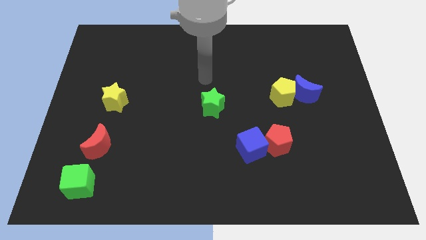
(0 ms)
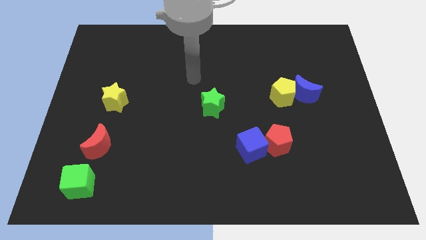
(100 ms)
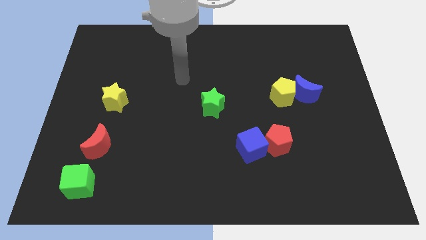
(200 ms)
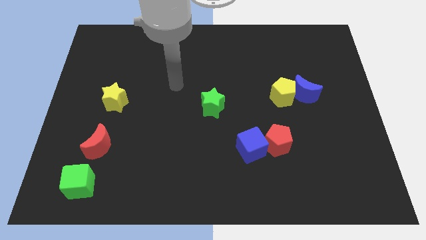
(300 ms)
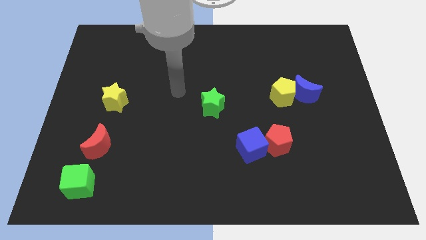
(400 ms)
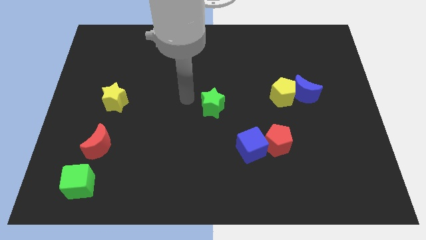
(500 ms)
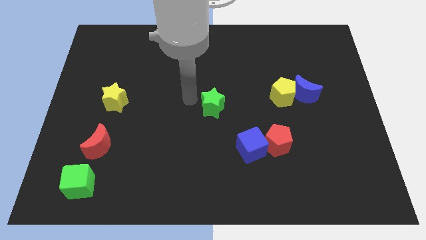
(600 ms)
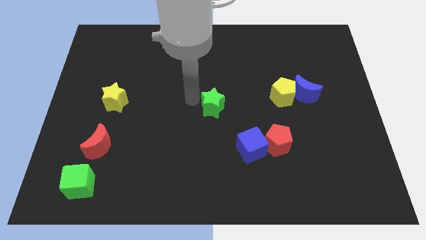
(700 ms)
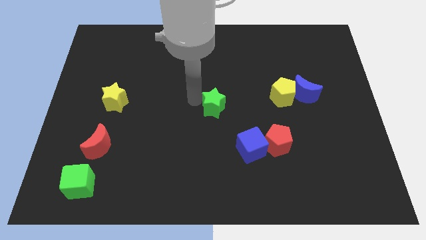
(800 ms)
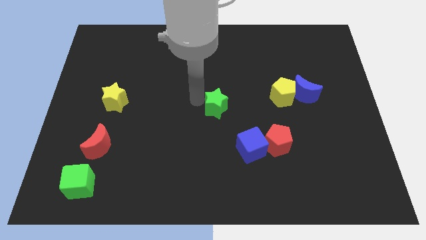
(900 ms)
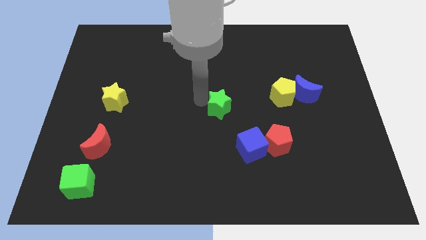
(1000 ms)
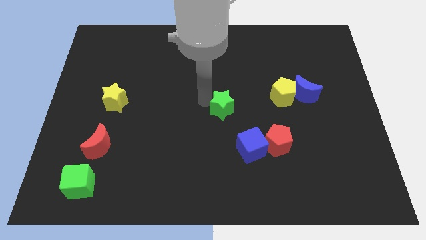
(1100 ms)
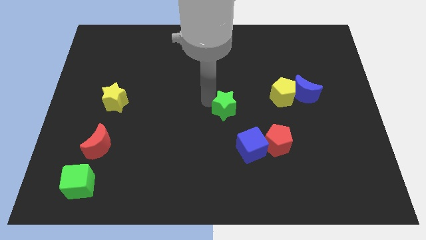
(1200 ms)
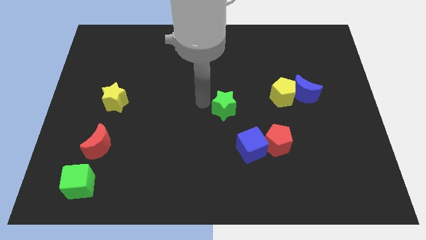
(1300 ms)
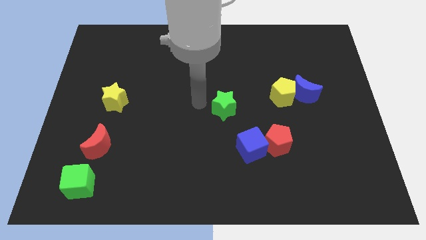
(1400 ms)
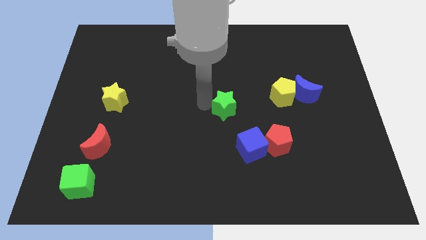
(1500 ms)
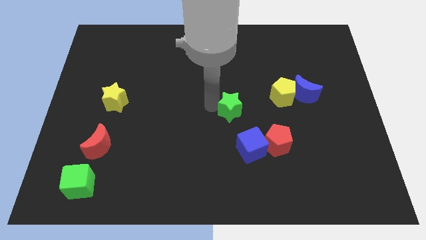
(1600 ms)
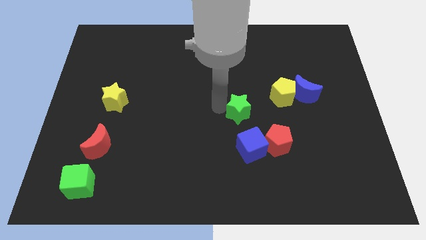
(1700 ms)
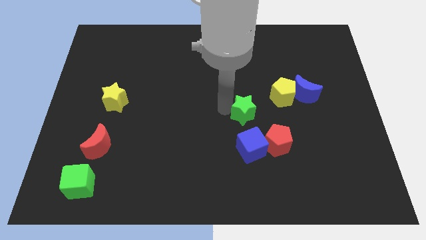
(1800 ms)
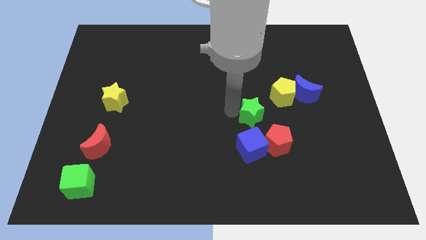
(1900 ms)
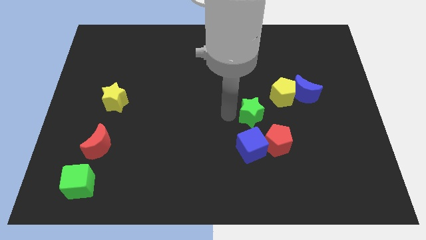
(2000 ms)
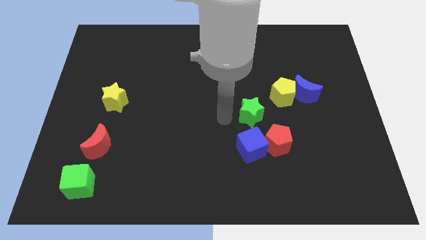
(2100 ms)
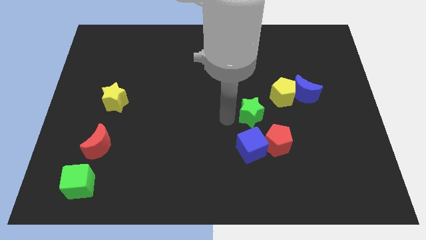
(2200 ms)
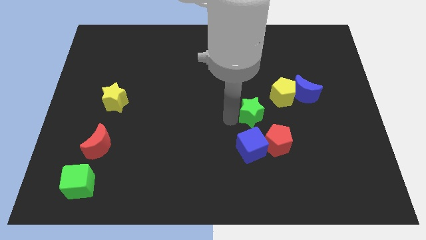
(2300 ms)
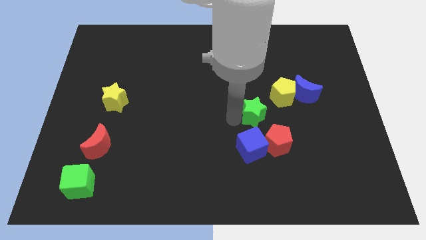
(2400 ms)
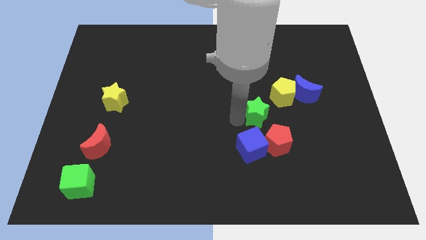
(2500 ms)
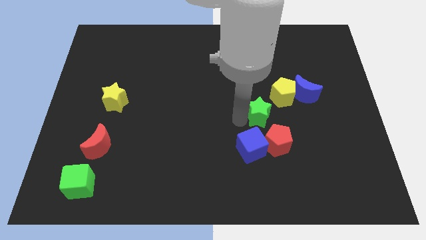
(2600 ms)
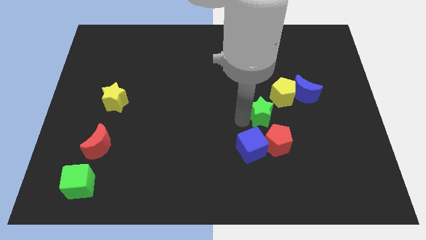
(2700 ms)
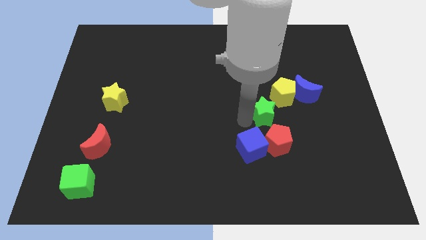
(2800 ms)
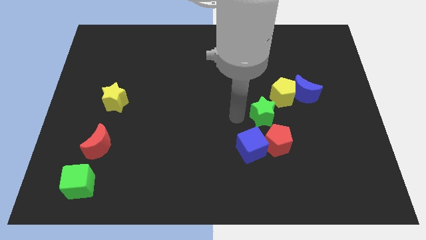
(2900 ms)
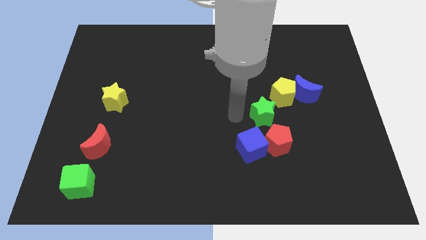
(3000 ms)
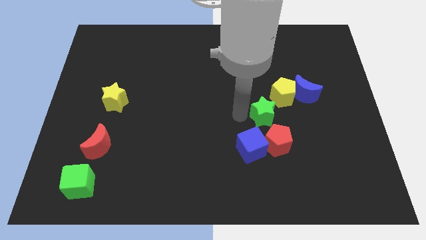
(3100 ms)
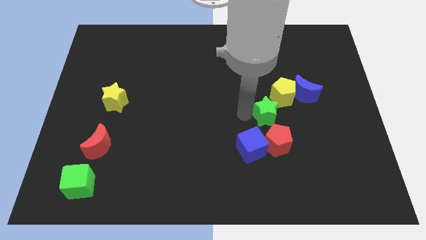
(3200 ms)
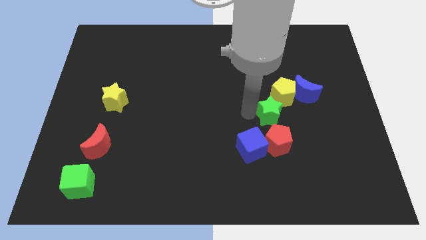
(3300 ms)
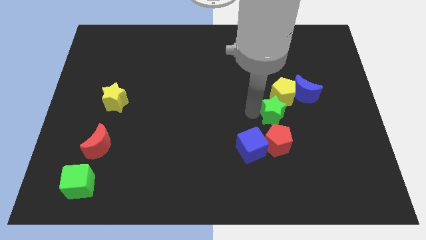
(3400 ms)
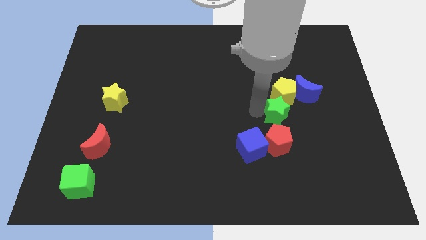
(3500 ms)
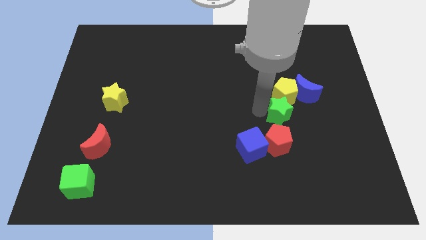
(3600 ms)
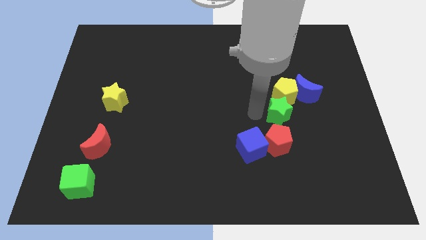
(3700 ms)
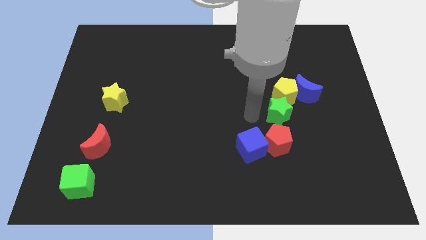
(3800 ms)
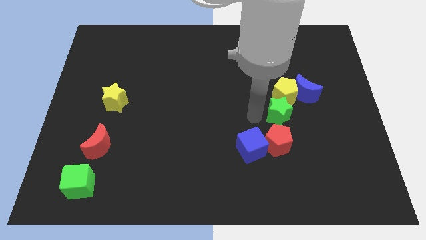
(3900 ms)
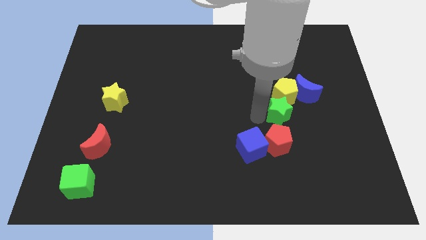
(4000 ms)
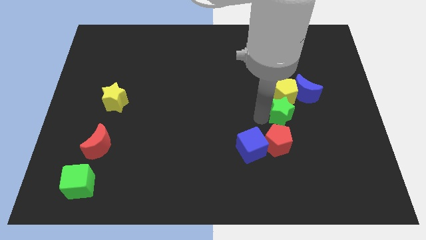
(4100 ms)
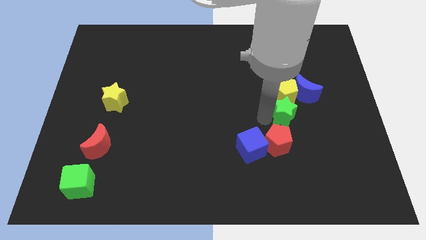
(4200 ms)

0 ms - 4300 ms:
put the green star diagonally down and to the right of the yellow pentagon

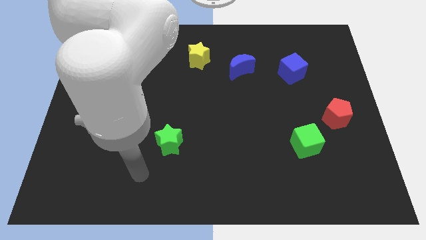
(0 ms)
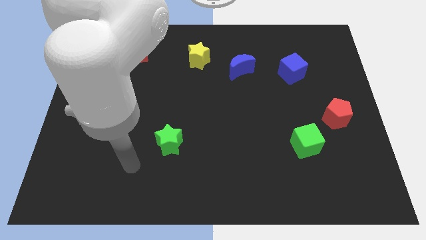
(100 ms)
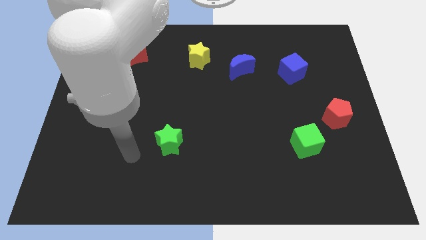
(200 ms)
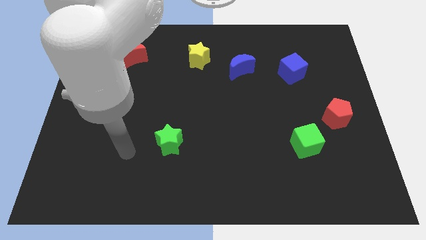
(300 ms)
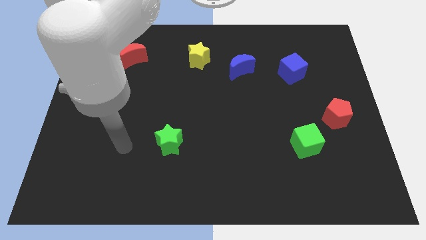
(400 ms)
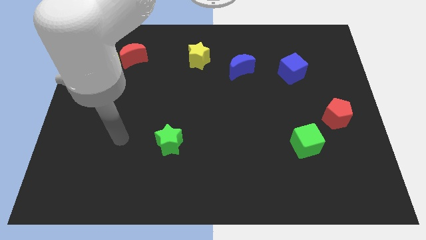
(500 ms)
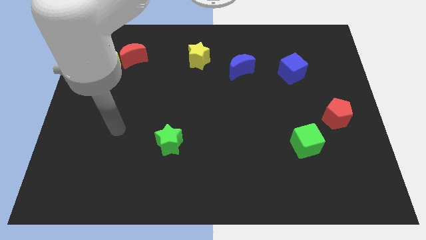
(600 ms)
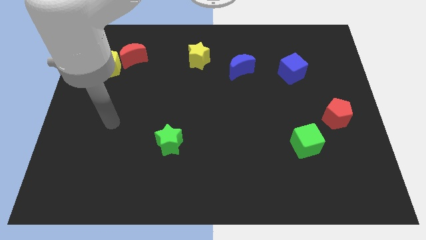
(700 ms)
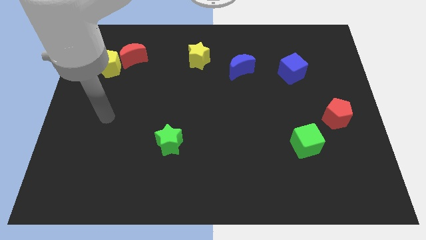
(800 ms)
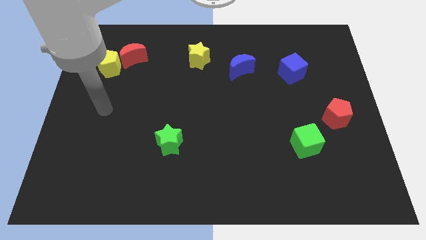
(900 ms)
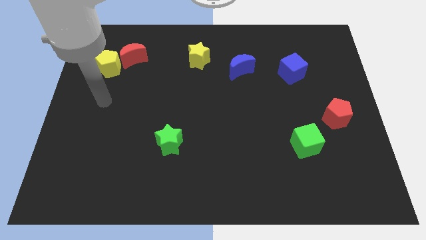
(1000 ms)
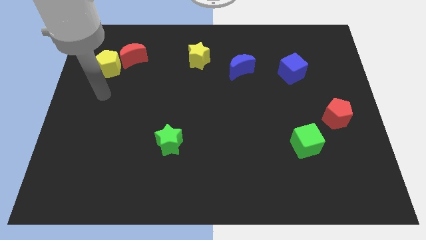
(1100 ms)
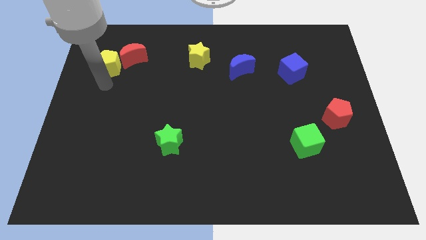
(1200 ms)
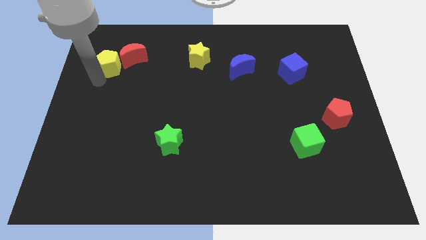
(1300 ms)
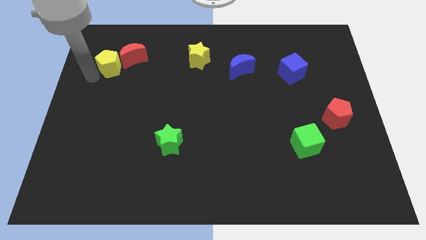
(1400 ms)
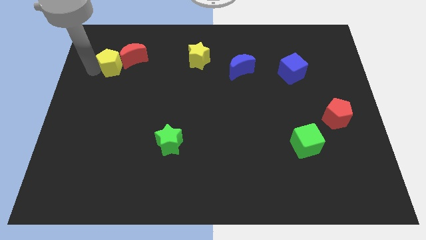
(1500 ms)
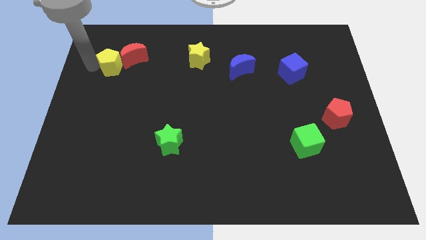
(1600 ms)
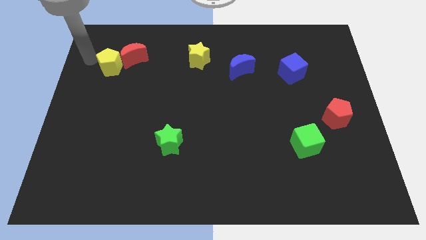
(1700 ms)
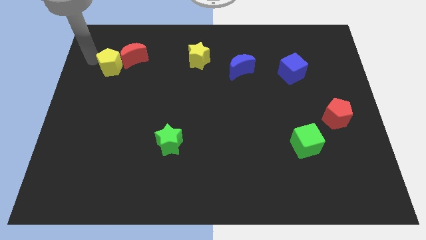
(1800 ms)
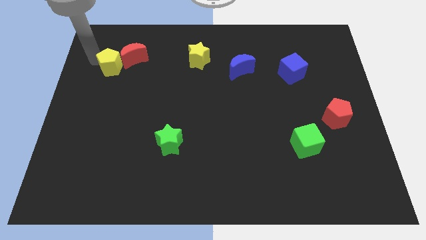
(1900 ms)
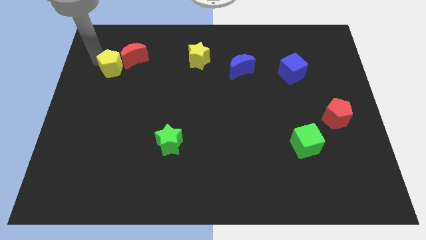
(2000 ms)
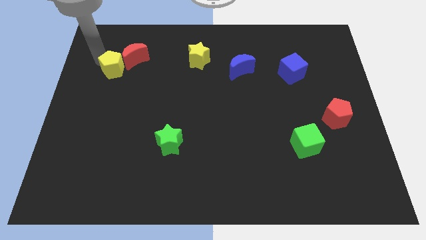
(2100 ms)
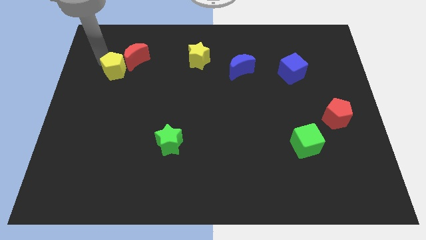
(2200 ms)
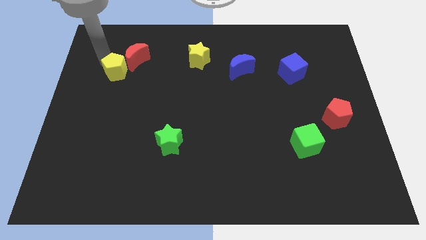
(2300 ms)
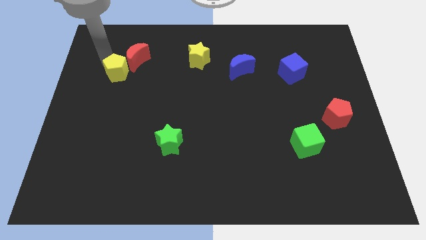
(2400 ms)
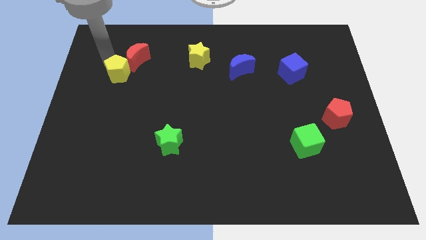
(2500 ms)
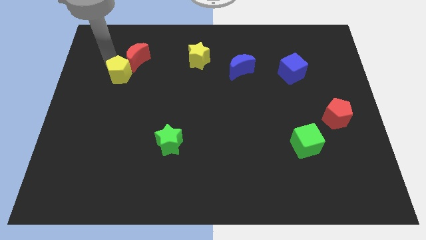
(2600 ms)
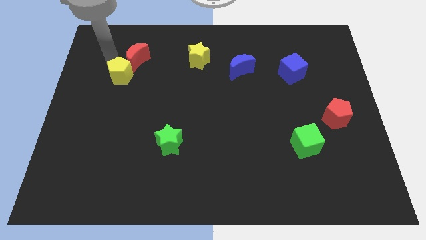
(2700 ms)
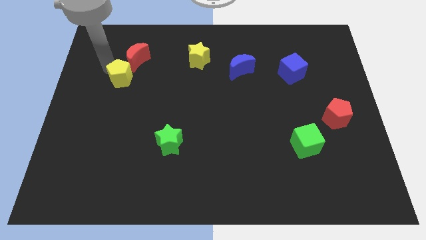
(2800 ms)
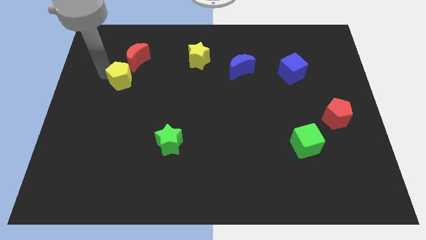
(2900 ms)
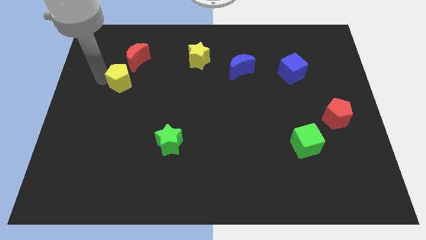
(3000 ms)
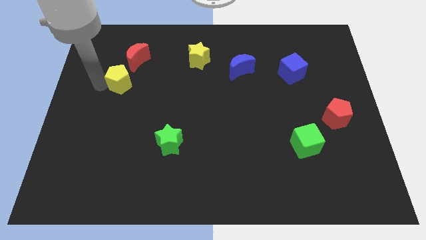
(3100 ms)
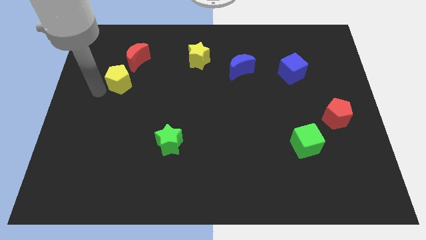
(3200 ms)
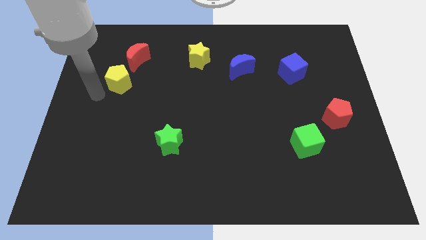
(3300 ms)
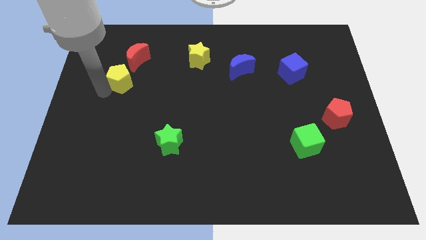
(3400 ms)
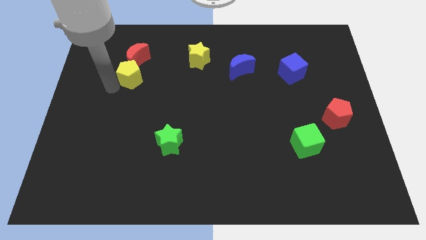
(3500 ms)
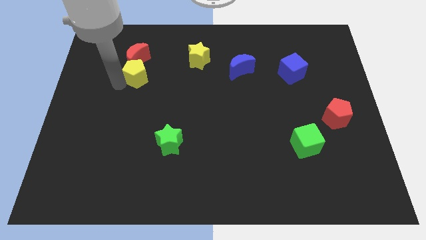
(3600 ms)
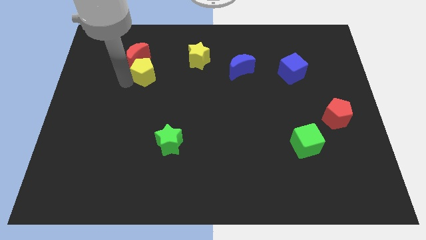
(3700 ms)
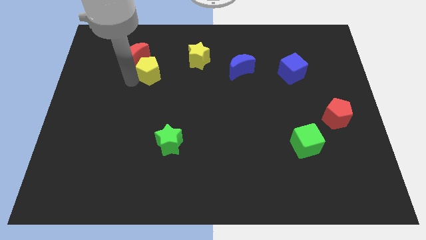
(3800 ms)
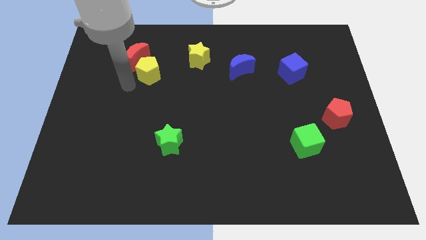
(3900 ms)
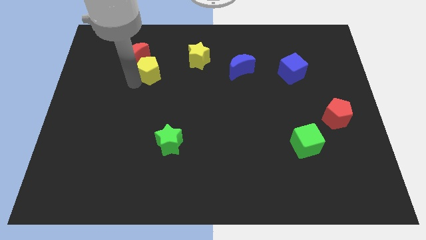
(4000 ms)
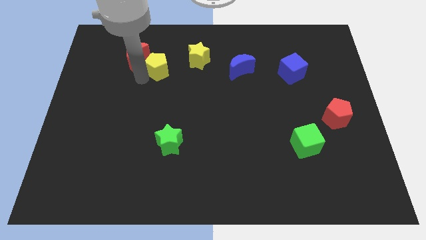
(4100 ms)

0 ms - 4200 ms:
move the yellow pentagon right of the red moon
